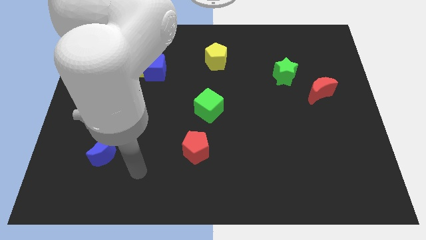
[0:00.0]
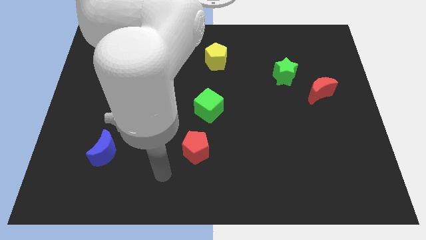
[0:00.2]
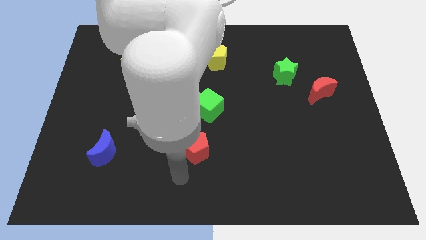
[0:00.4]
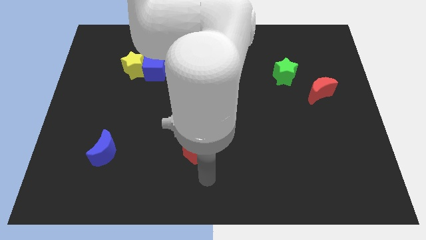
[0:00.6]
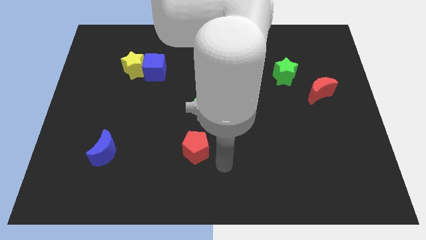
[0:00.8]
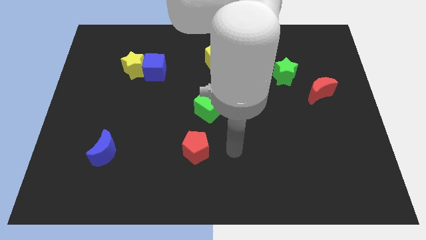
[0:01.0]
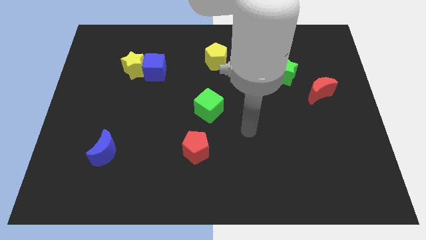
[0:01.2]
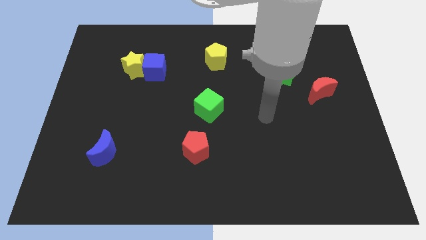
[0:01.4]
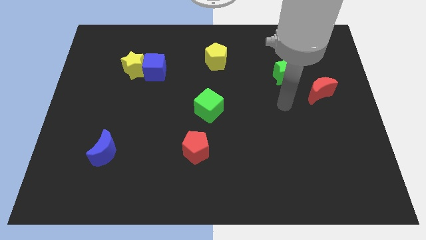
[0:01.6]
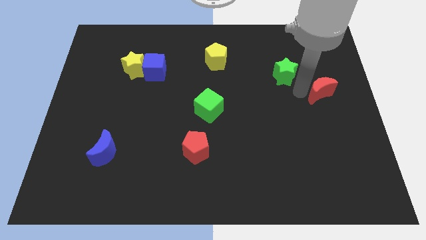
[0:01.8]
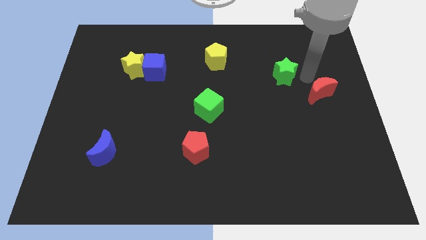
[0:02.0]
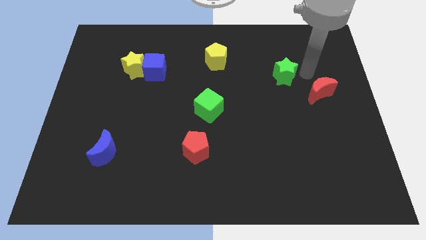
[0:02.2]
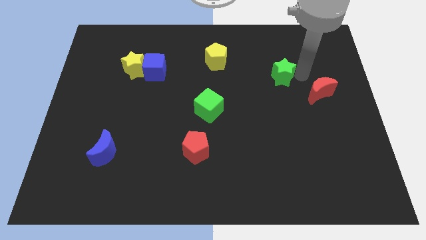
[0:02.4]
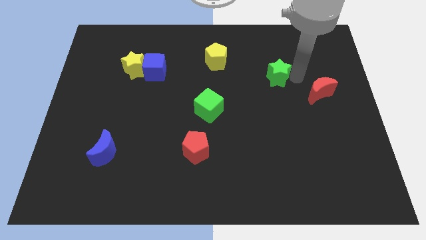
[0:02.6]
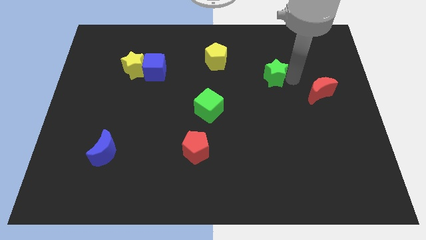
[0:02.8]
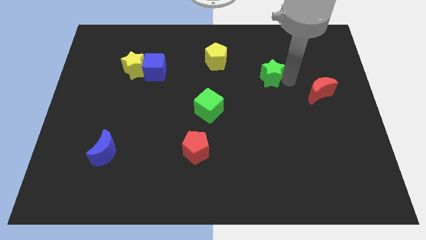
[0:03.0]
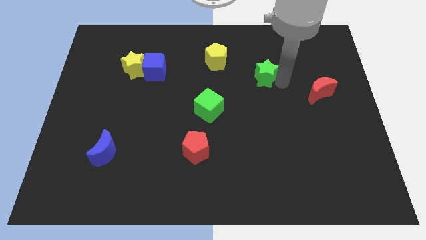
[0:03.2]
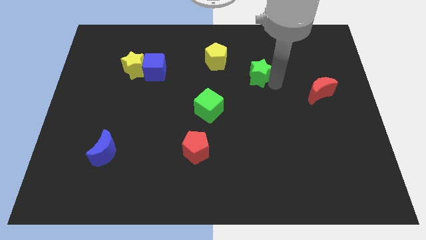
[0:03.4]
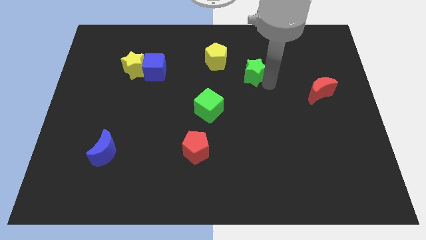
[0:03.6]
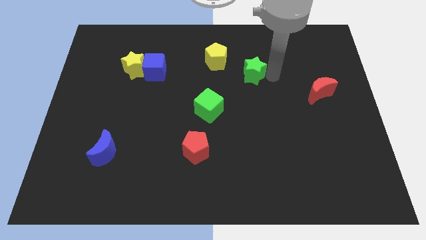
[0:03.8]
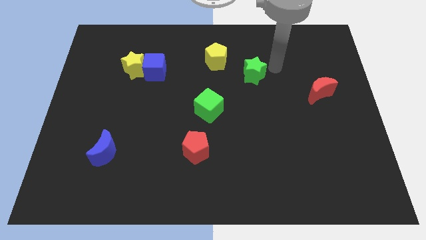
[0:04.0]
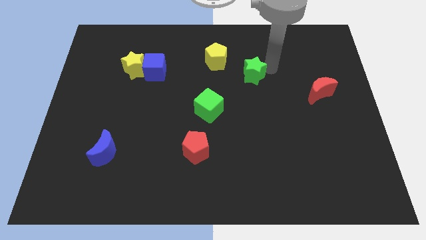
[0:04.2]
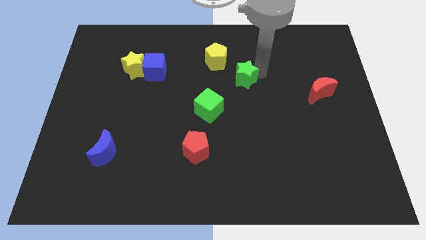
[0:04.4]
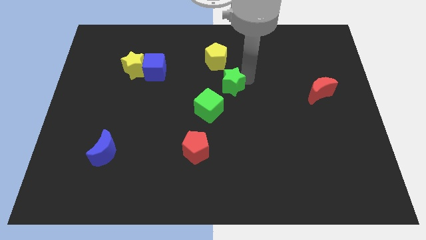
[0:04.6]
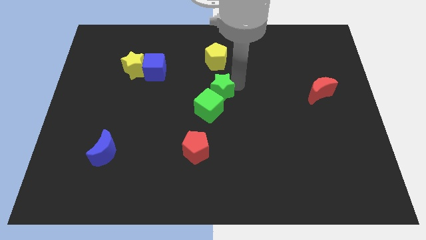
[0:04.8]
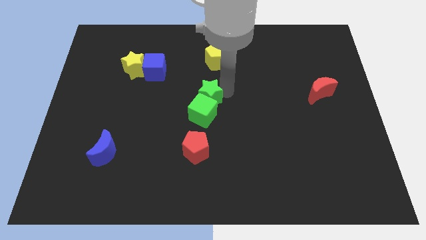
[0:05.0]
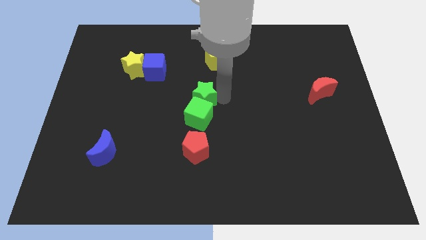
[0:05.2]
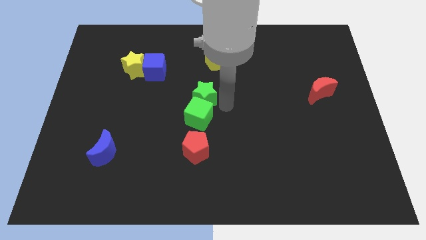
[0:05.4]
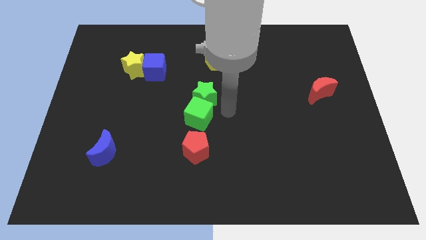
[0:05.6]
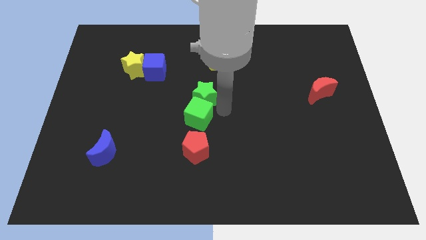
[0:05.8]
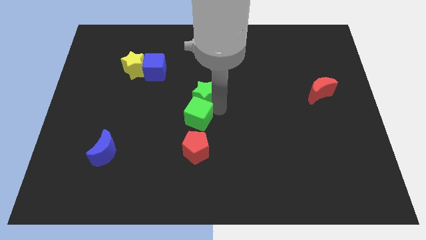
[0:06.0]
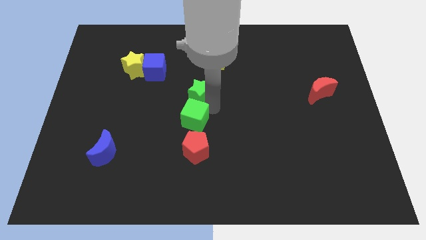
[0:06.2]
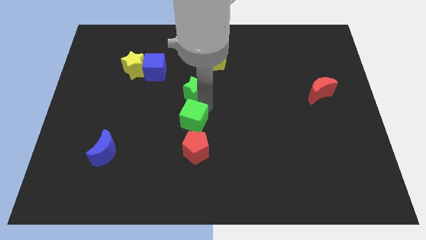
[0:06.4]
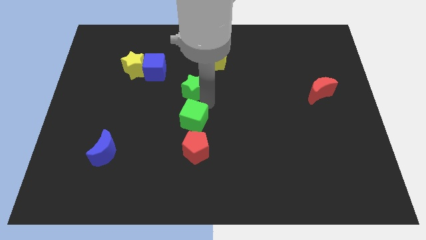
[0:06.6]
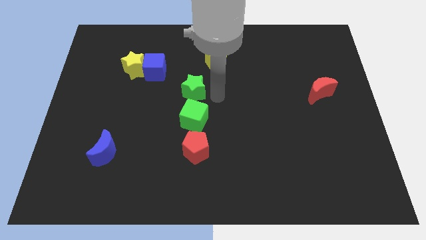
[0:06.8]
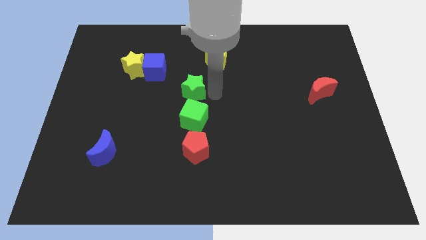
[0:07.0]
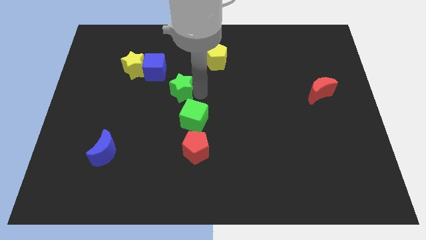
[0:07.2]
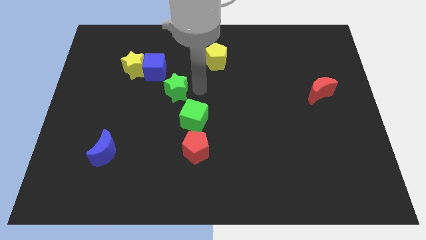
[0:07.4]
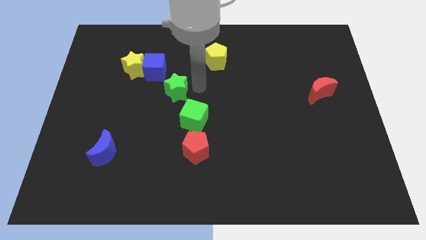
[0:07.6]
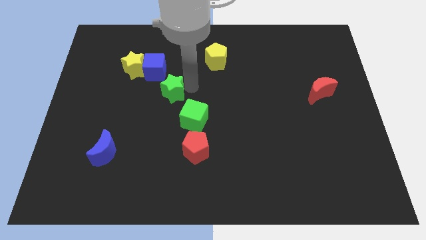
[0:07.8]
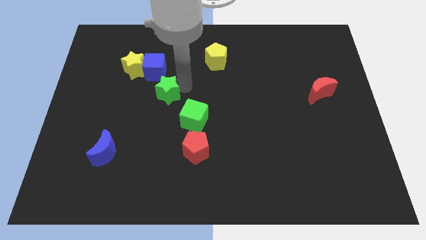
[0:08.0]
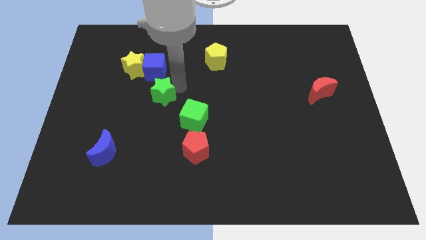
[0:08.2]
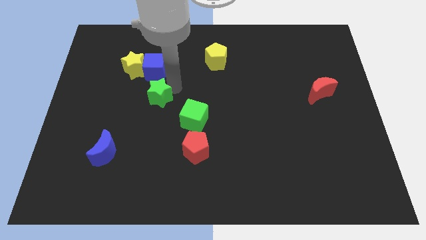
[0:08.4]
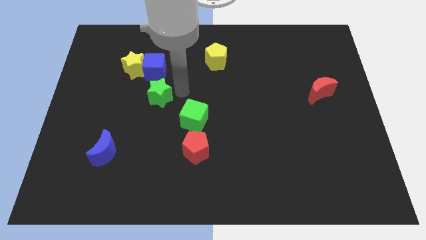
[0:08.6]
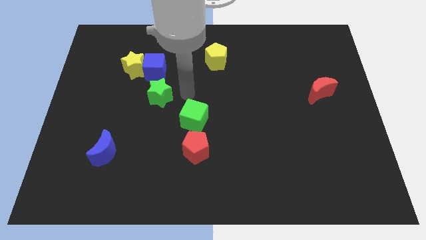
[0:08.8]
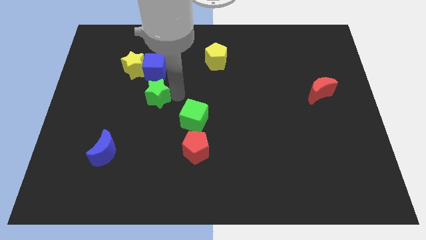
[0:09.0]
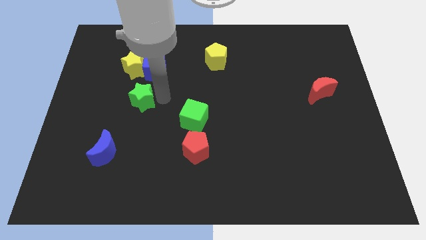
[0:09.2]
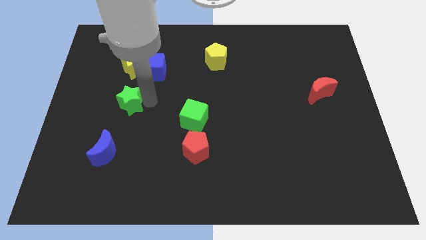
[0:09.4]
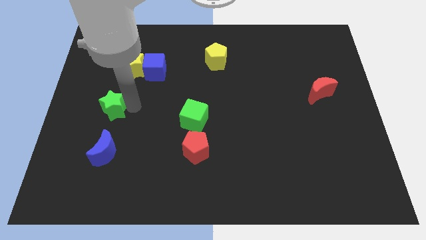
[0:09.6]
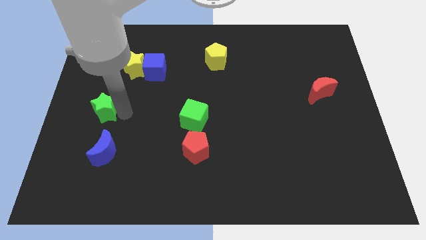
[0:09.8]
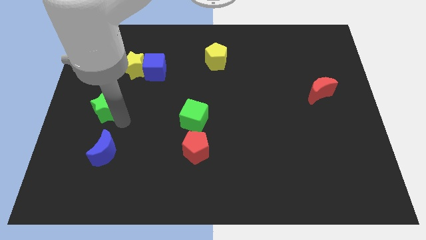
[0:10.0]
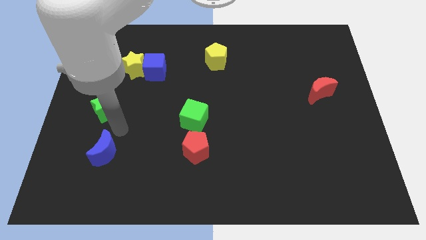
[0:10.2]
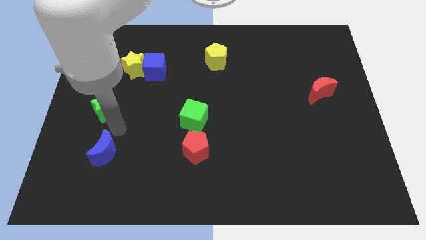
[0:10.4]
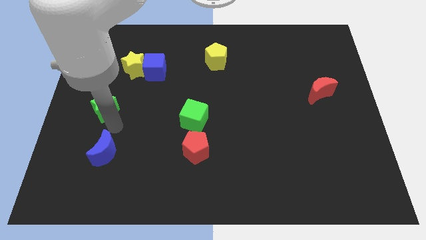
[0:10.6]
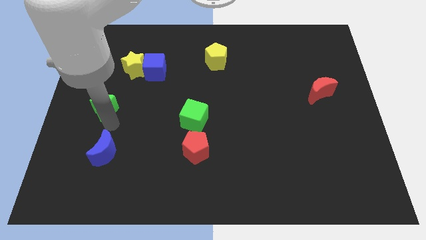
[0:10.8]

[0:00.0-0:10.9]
push the green star to the left side of the board

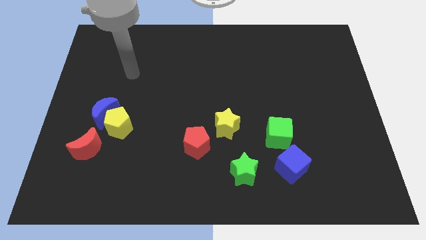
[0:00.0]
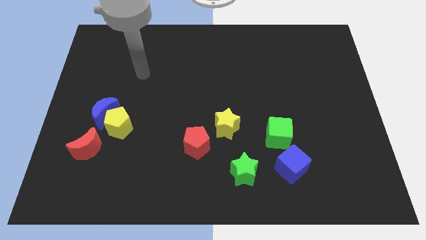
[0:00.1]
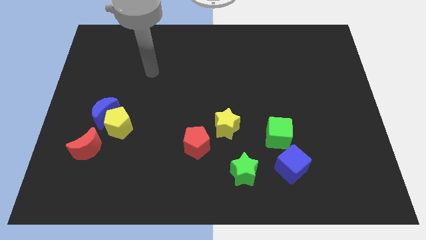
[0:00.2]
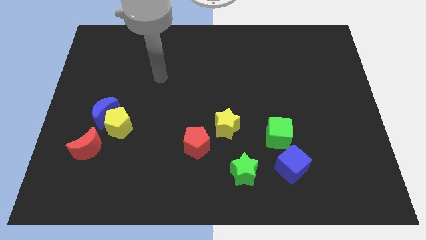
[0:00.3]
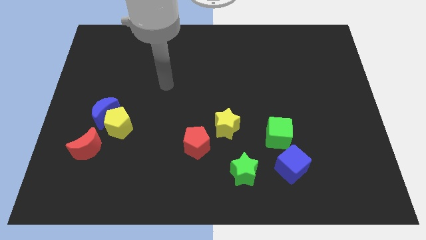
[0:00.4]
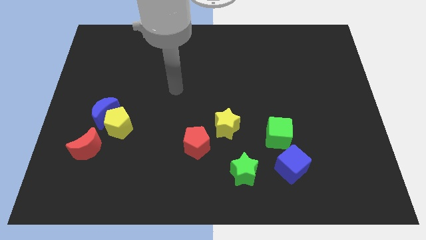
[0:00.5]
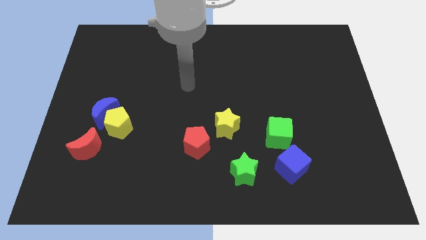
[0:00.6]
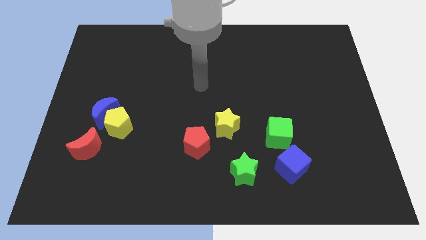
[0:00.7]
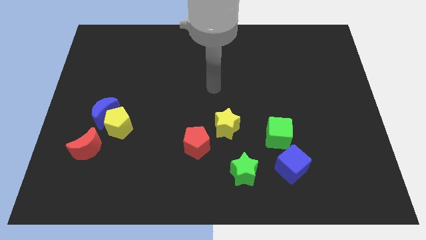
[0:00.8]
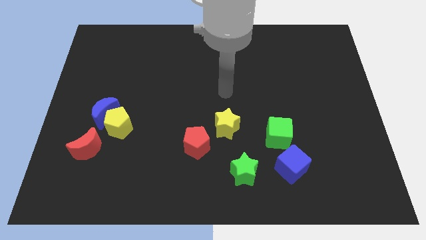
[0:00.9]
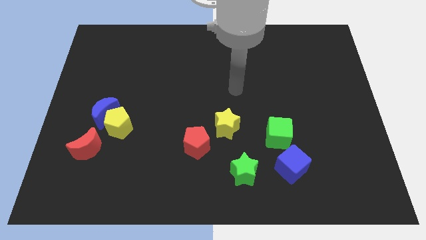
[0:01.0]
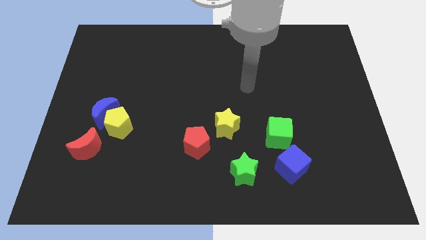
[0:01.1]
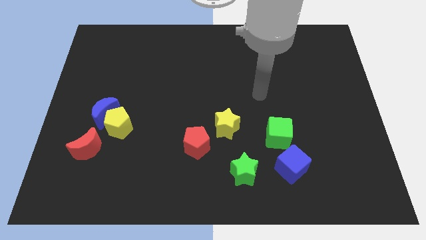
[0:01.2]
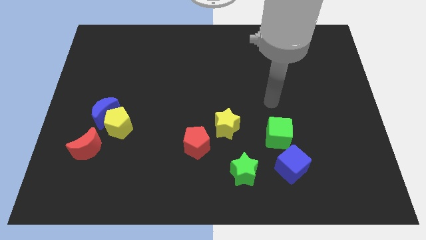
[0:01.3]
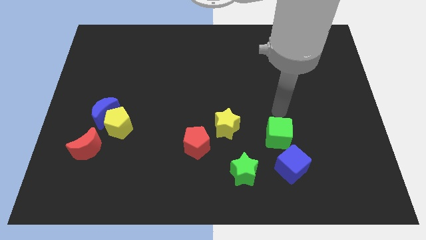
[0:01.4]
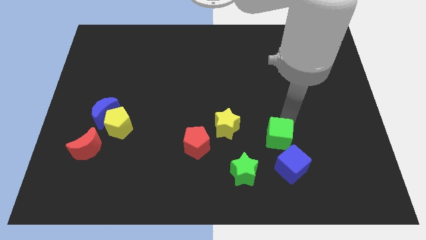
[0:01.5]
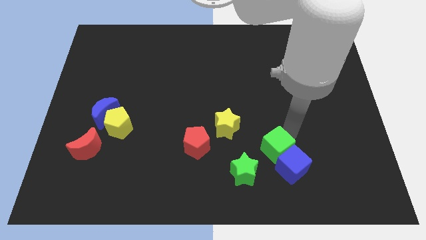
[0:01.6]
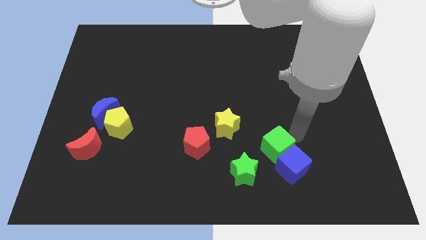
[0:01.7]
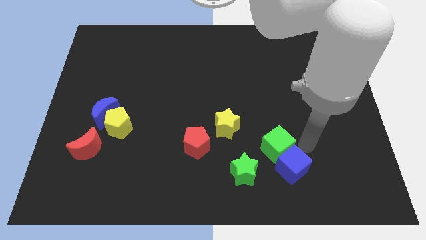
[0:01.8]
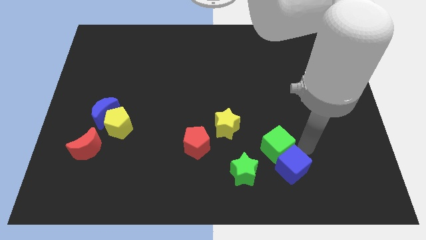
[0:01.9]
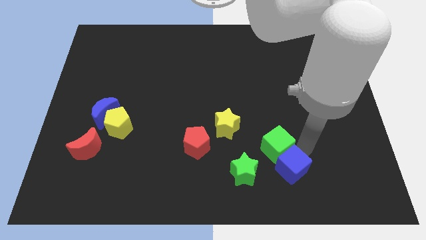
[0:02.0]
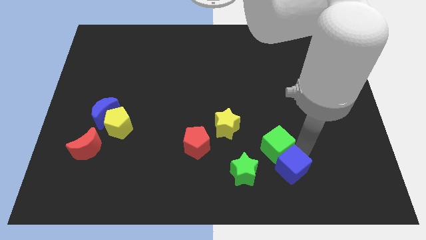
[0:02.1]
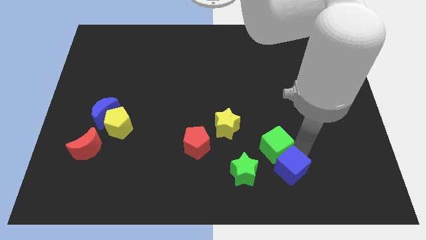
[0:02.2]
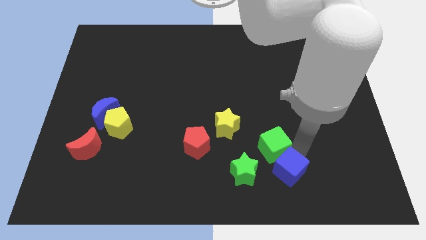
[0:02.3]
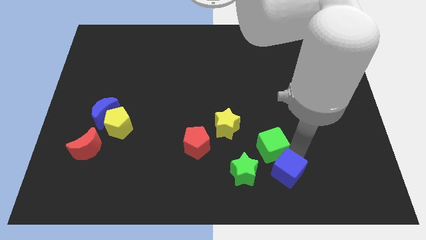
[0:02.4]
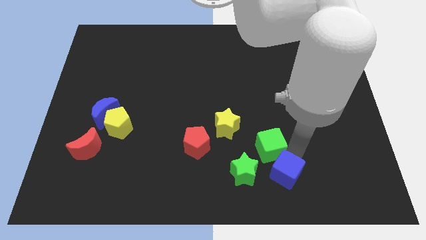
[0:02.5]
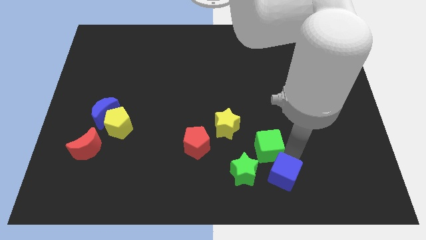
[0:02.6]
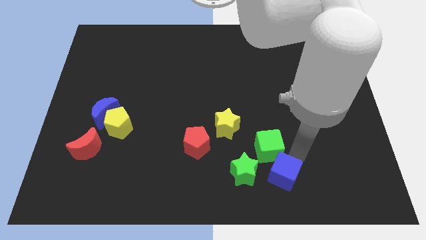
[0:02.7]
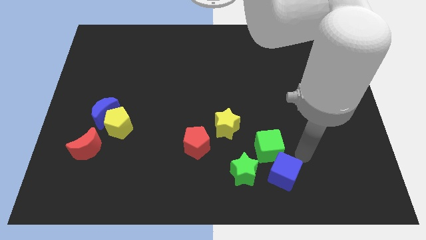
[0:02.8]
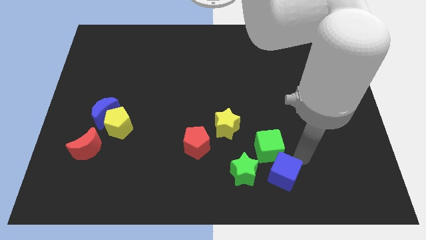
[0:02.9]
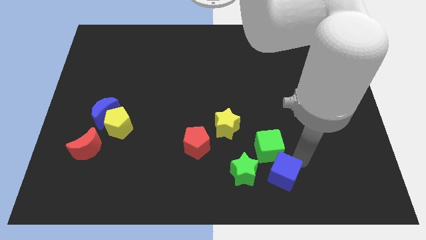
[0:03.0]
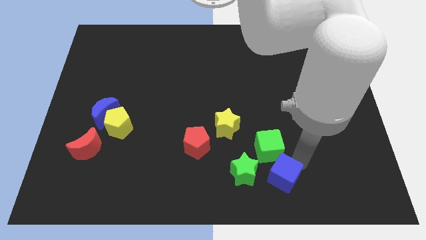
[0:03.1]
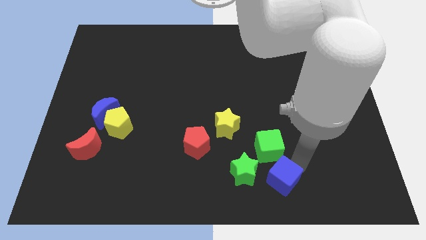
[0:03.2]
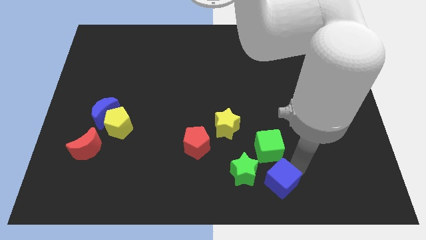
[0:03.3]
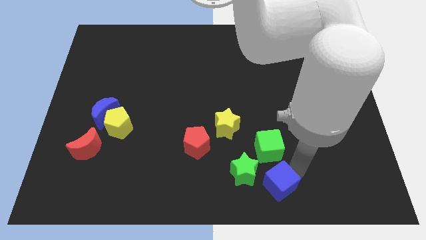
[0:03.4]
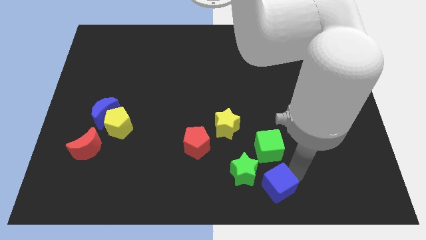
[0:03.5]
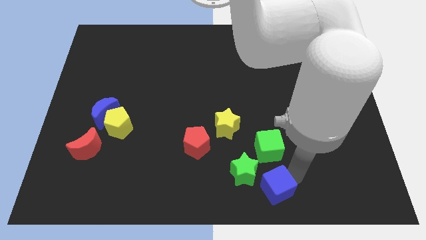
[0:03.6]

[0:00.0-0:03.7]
slide the blue cube to the bottom side
